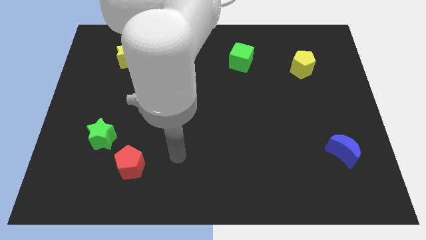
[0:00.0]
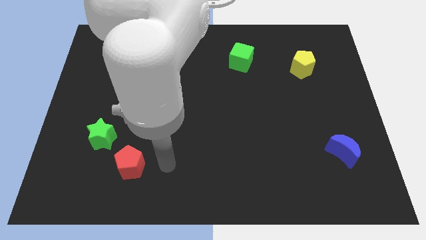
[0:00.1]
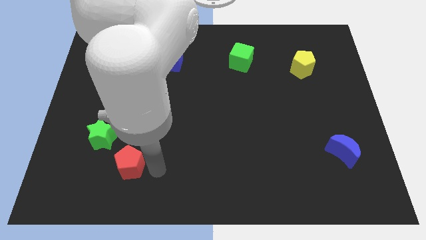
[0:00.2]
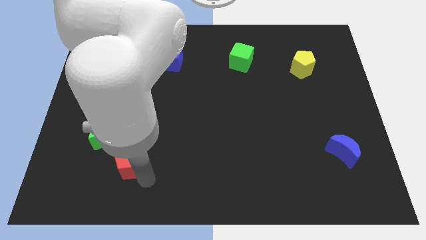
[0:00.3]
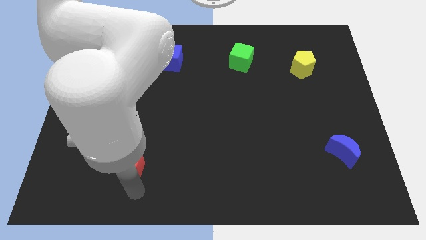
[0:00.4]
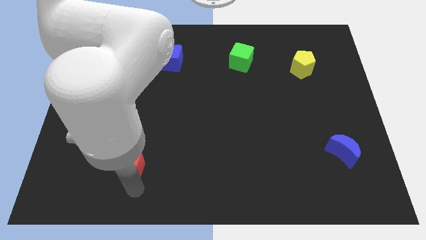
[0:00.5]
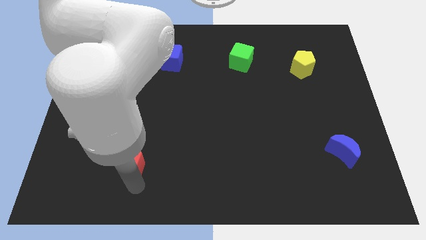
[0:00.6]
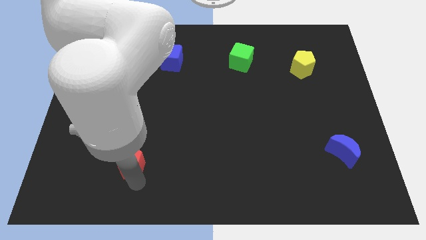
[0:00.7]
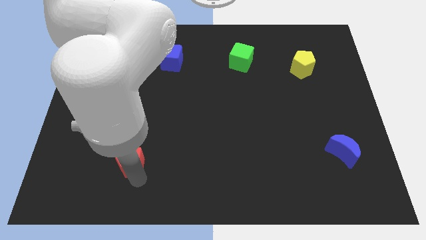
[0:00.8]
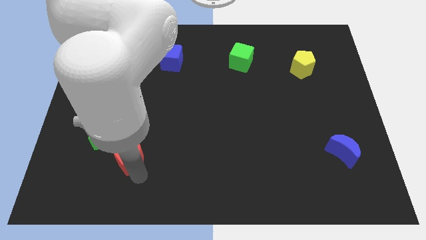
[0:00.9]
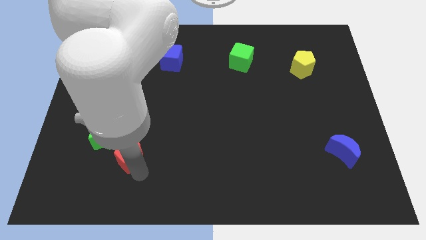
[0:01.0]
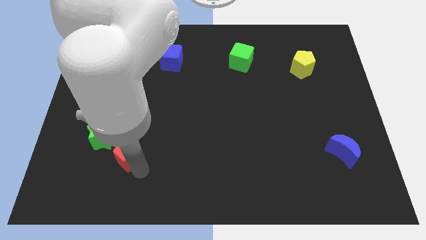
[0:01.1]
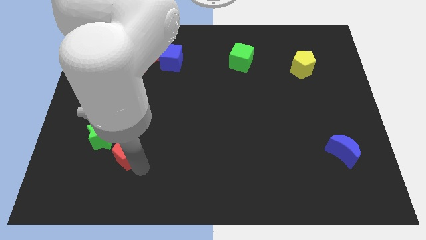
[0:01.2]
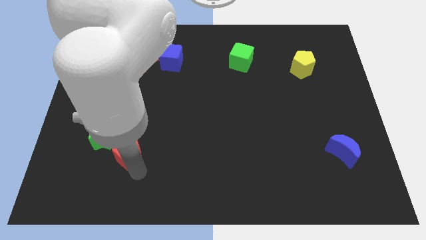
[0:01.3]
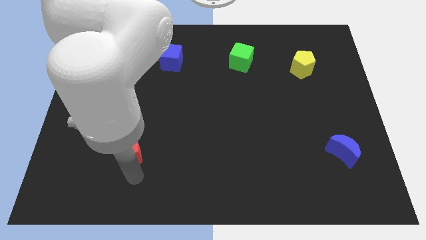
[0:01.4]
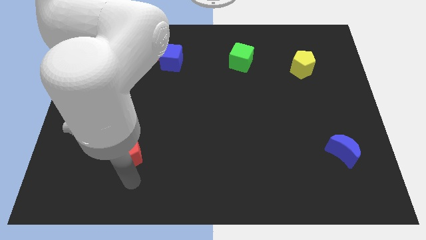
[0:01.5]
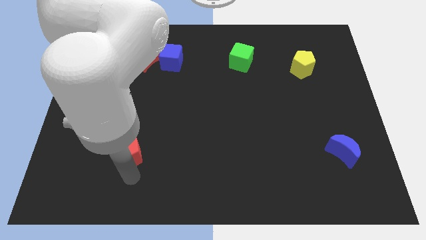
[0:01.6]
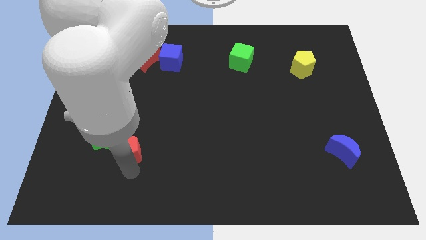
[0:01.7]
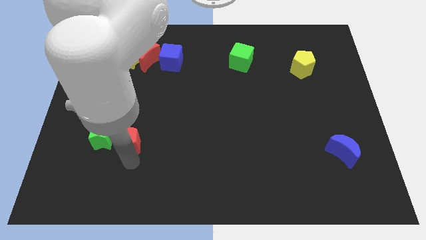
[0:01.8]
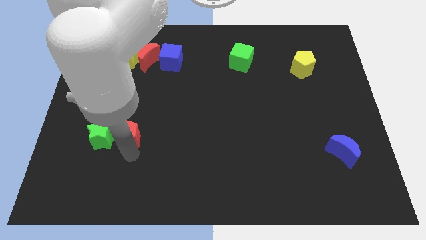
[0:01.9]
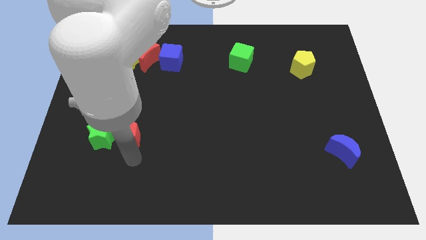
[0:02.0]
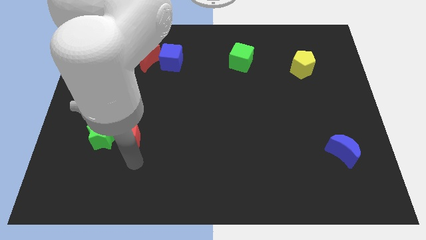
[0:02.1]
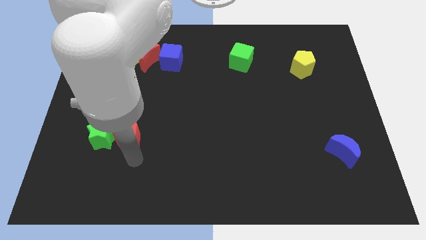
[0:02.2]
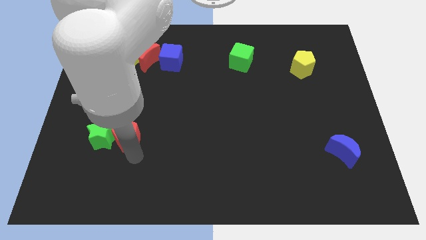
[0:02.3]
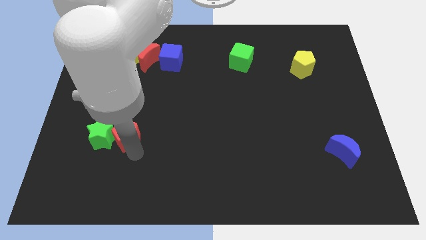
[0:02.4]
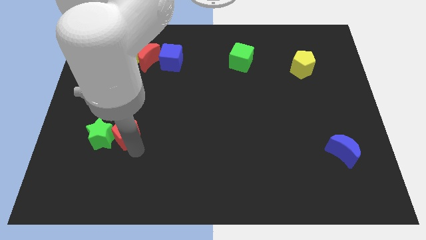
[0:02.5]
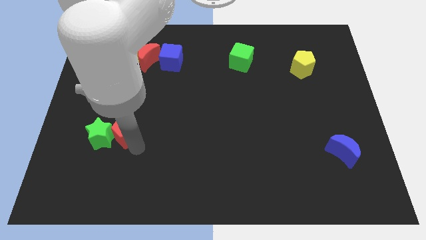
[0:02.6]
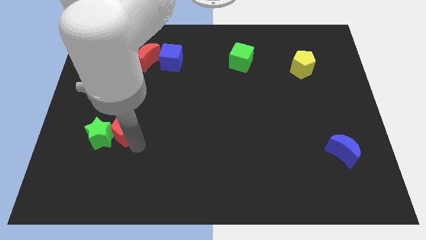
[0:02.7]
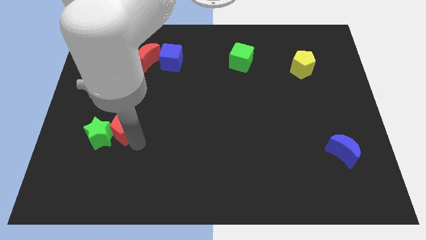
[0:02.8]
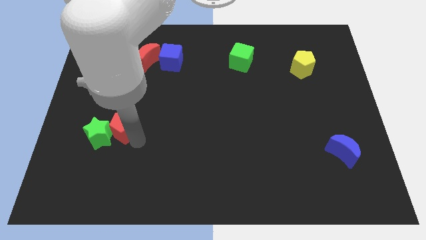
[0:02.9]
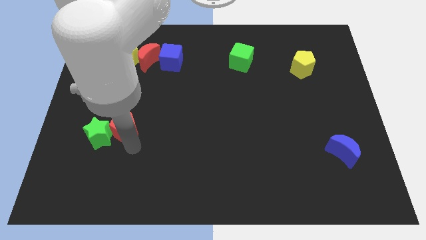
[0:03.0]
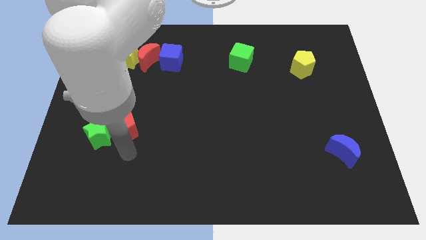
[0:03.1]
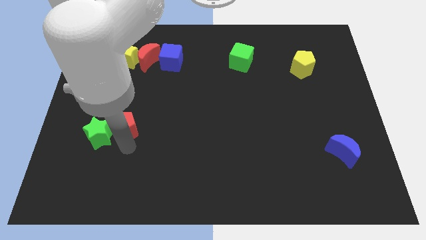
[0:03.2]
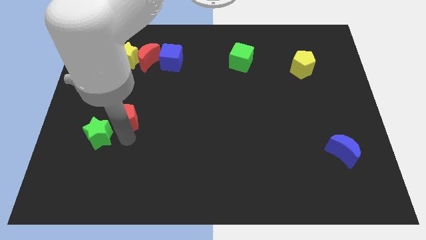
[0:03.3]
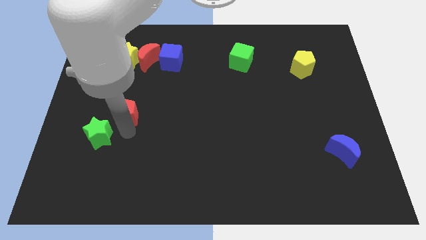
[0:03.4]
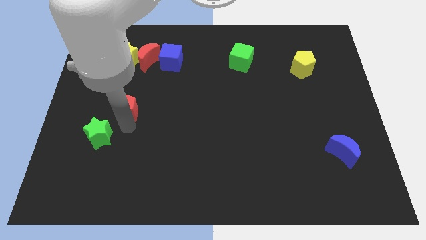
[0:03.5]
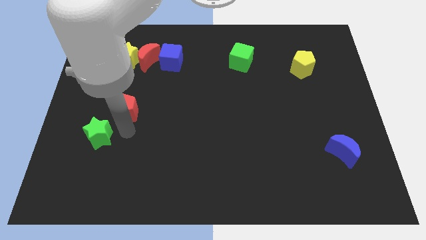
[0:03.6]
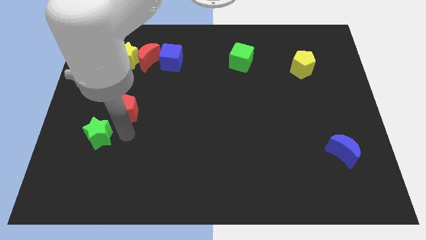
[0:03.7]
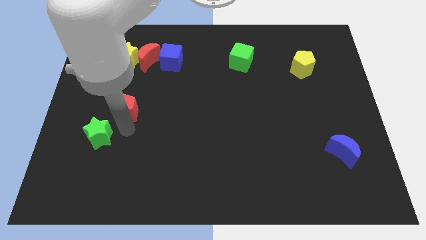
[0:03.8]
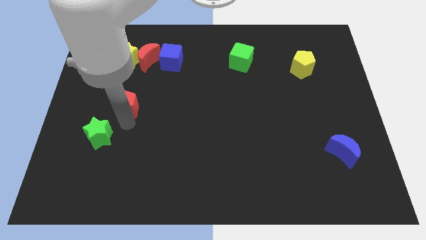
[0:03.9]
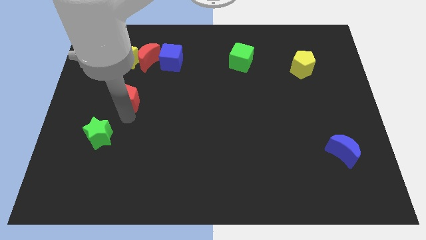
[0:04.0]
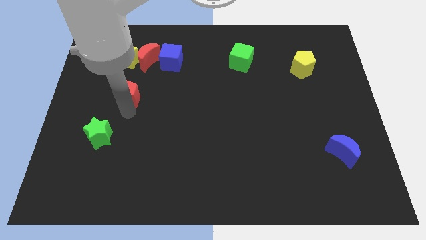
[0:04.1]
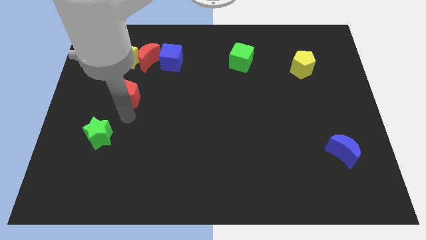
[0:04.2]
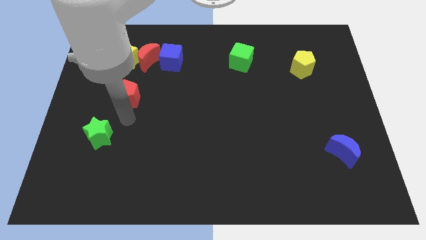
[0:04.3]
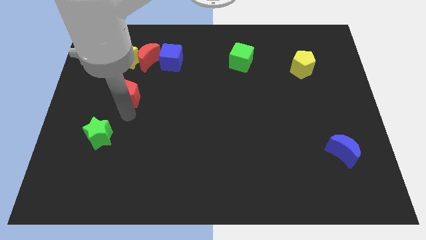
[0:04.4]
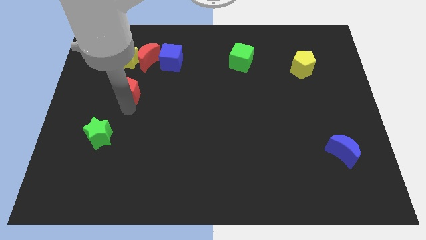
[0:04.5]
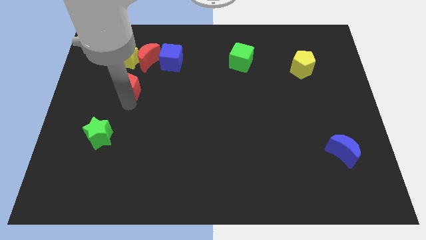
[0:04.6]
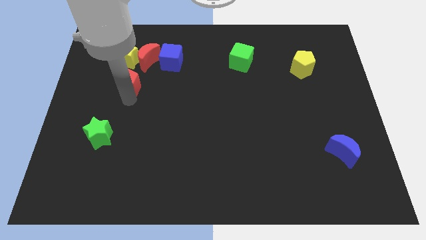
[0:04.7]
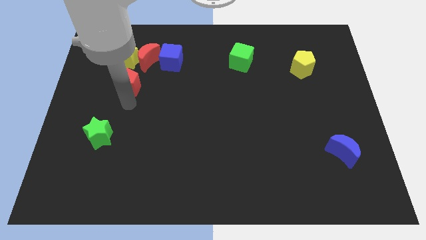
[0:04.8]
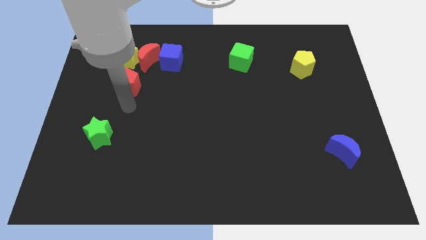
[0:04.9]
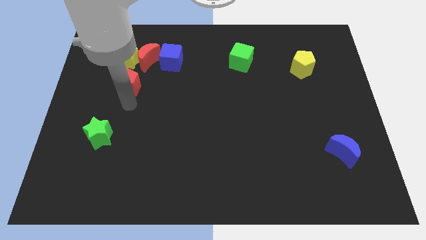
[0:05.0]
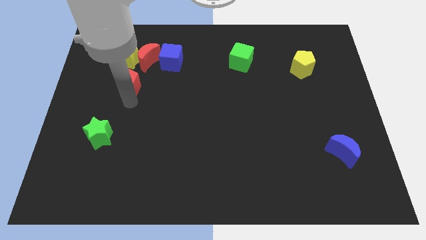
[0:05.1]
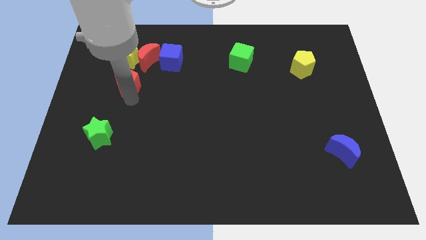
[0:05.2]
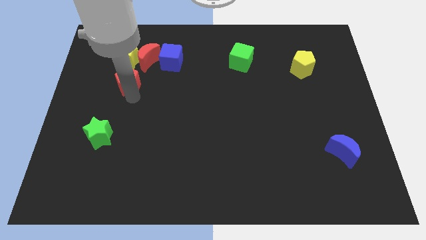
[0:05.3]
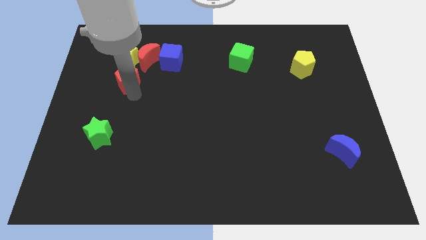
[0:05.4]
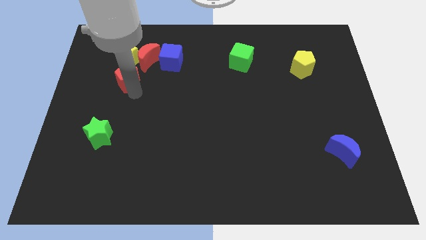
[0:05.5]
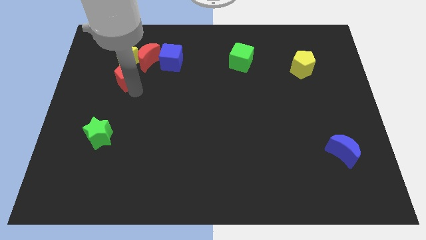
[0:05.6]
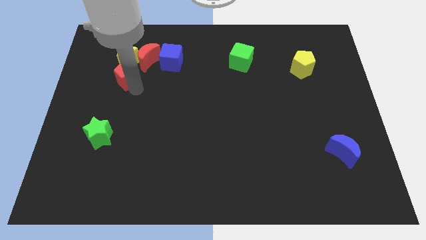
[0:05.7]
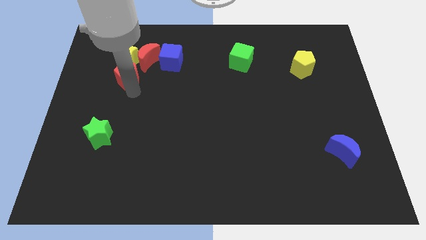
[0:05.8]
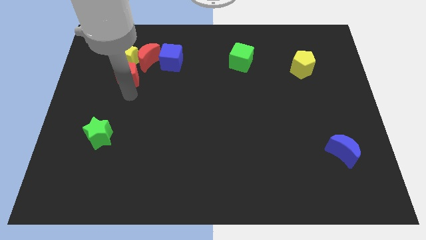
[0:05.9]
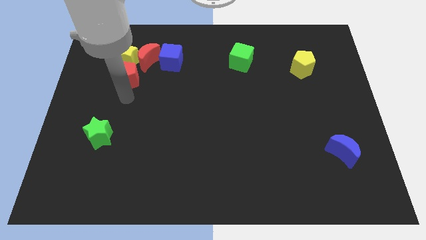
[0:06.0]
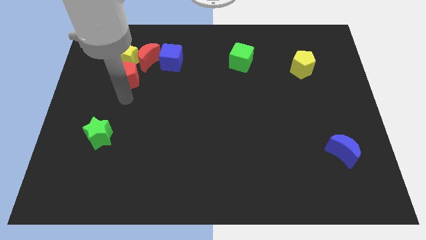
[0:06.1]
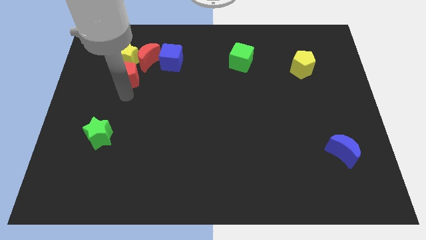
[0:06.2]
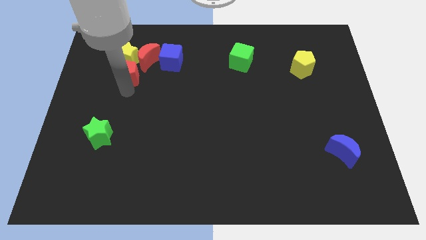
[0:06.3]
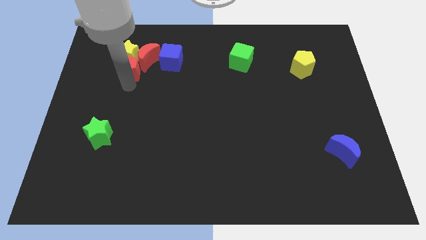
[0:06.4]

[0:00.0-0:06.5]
put the red pentagon to the yellow star

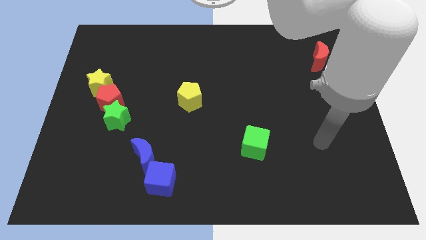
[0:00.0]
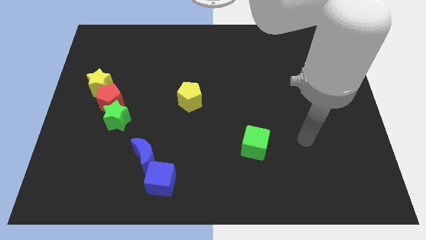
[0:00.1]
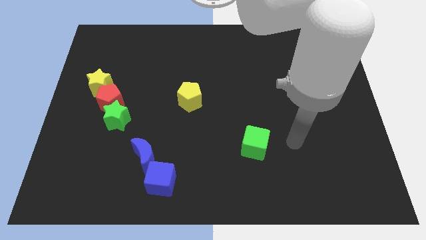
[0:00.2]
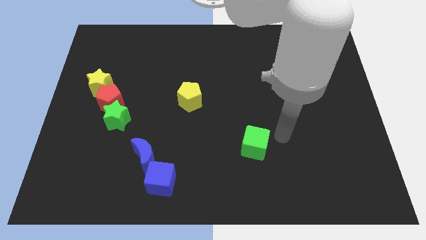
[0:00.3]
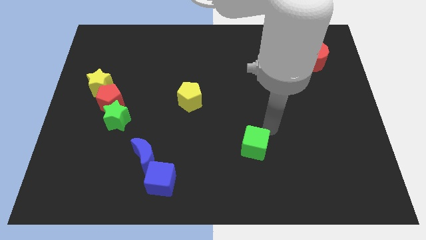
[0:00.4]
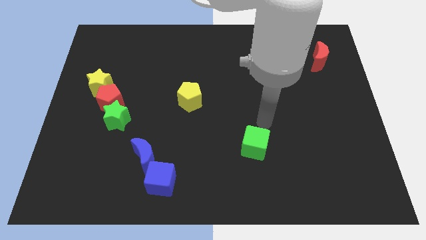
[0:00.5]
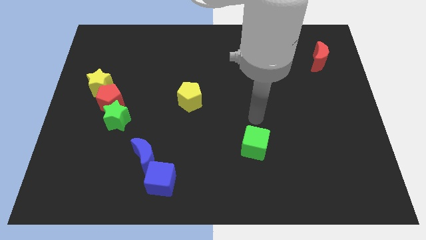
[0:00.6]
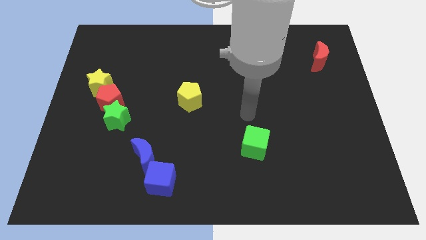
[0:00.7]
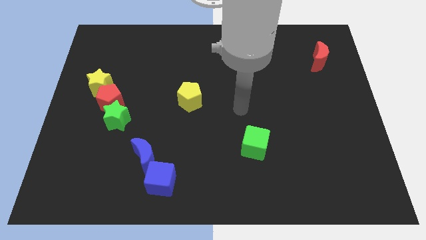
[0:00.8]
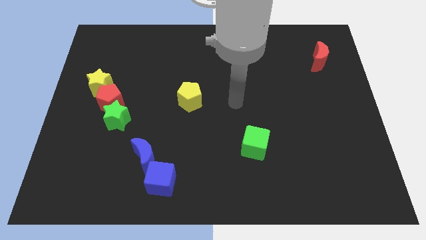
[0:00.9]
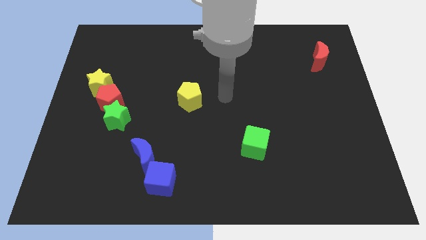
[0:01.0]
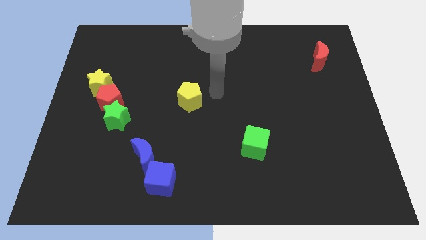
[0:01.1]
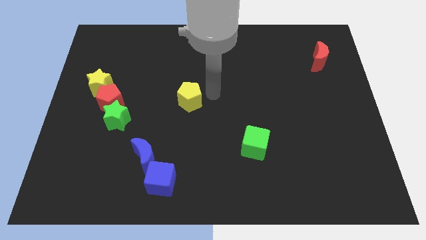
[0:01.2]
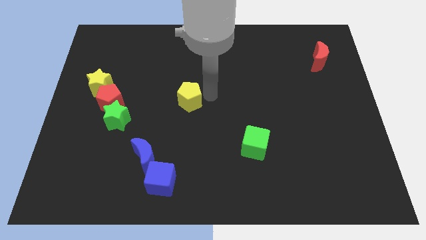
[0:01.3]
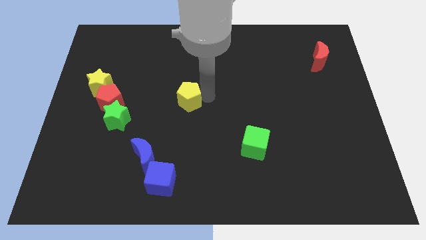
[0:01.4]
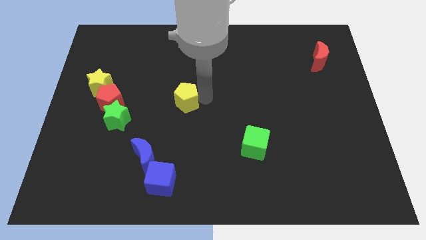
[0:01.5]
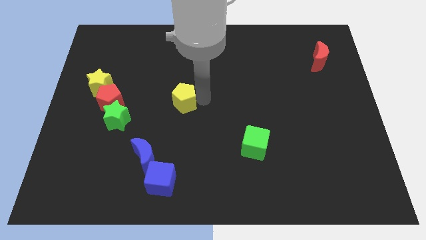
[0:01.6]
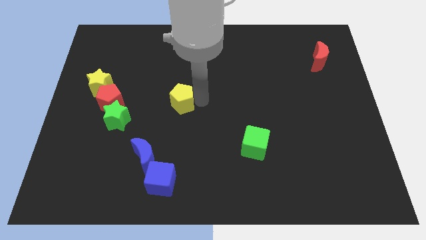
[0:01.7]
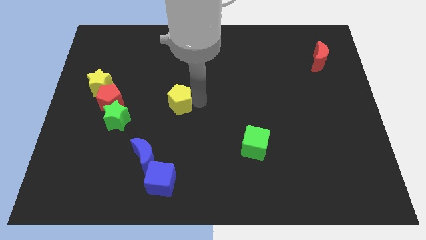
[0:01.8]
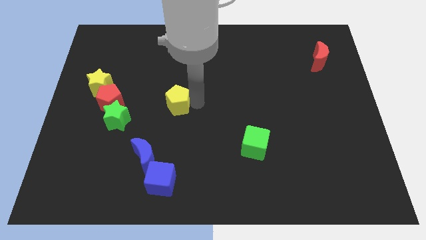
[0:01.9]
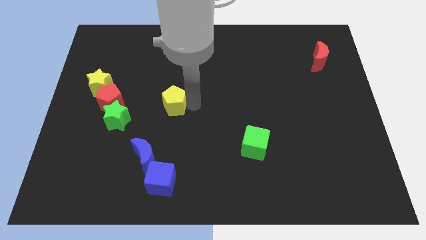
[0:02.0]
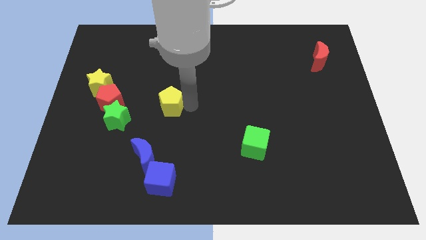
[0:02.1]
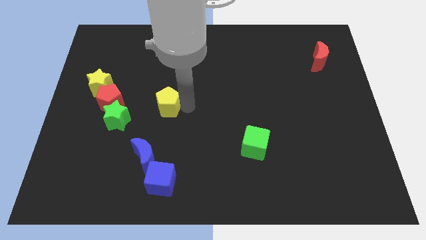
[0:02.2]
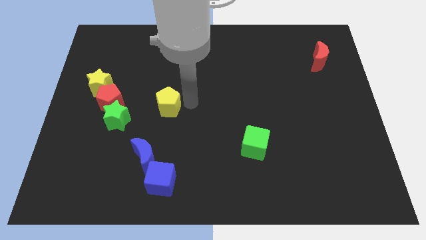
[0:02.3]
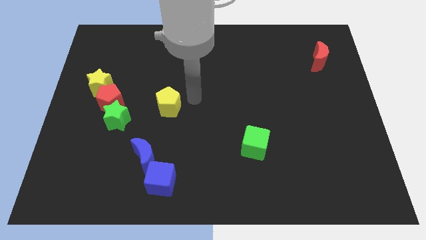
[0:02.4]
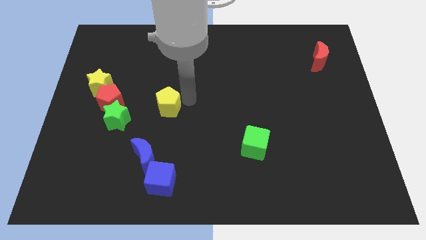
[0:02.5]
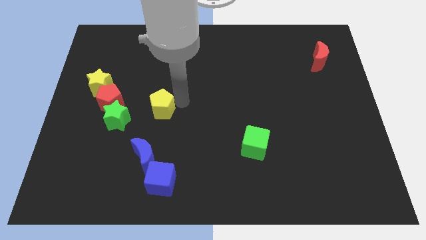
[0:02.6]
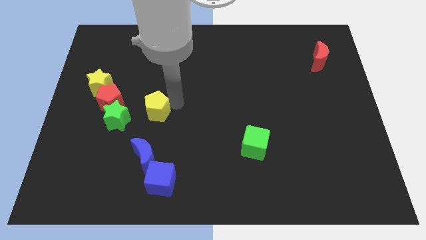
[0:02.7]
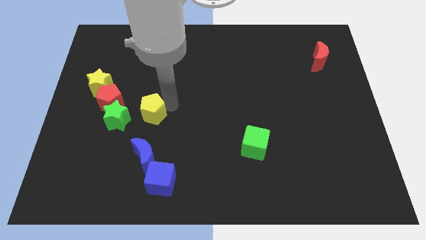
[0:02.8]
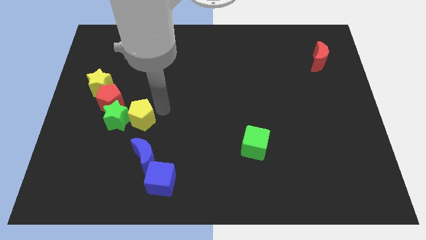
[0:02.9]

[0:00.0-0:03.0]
move the yellow pentagon towards the green star
